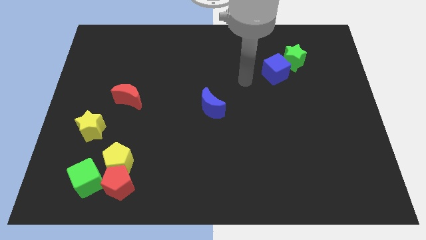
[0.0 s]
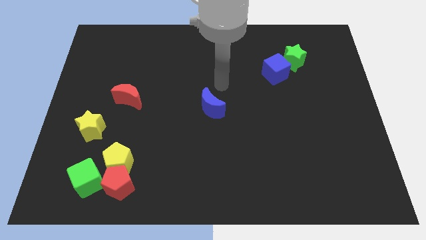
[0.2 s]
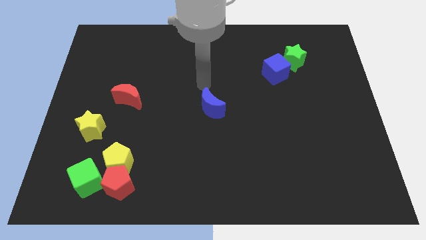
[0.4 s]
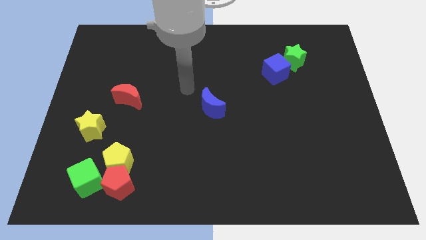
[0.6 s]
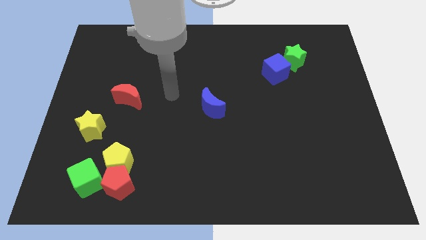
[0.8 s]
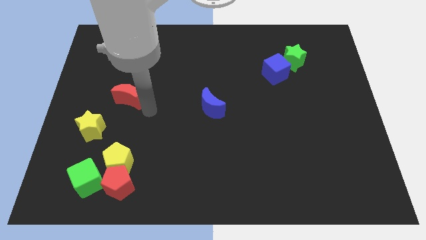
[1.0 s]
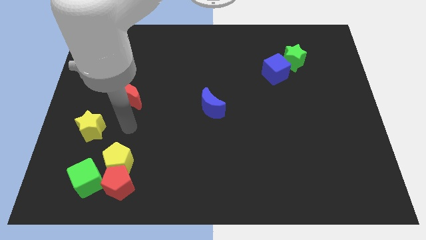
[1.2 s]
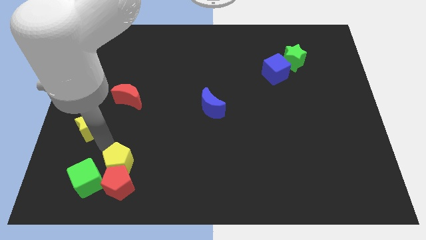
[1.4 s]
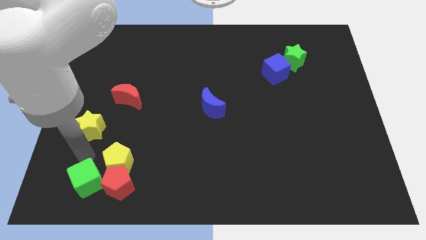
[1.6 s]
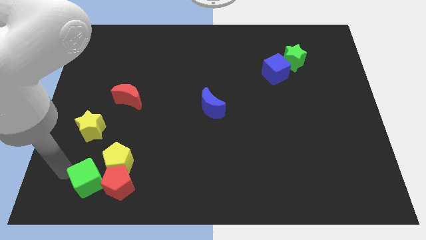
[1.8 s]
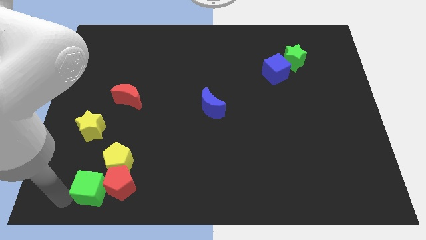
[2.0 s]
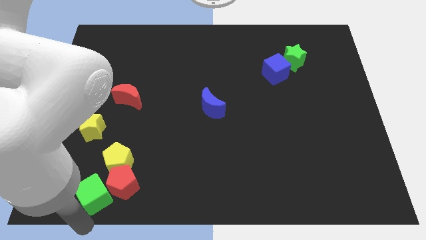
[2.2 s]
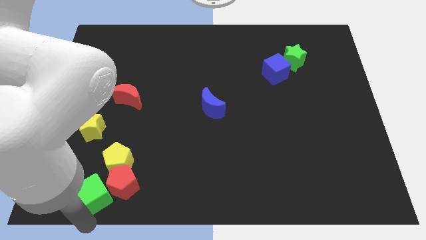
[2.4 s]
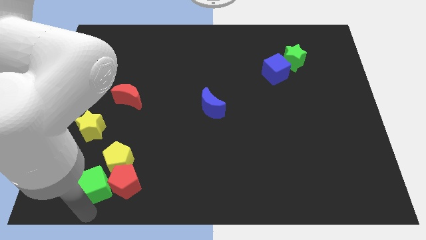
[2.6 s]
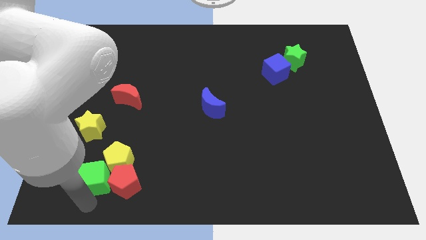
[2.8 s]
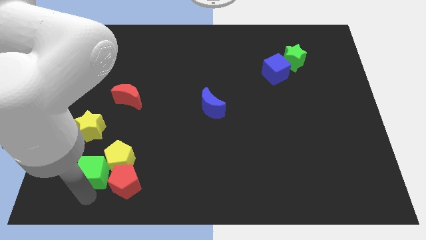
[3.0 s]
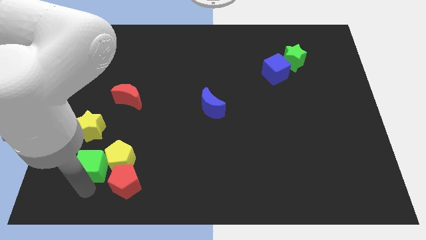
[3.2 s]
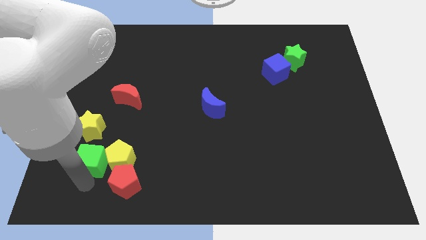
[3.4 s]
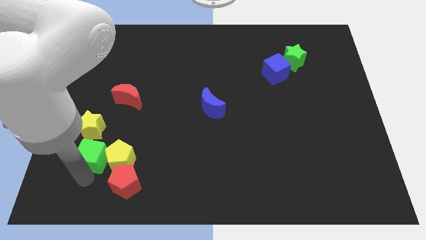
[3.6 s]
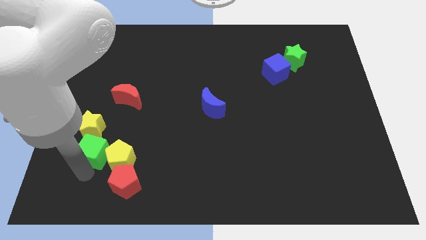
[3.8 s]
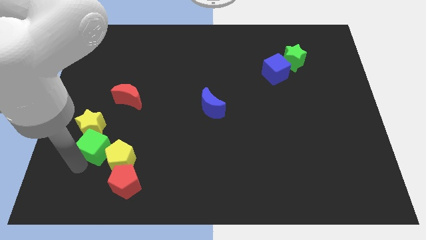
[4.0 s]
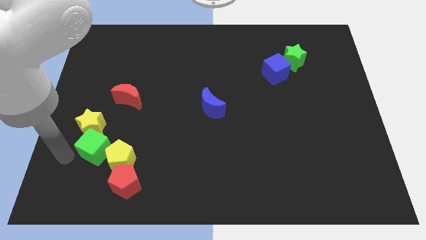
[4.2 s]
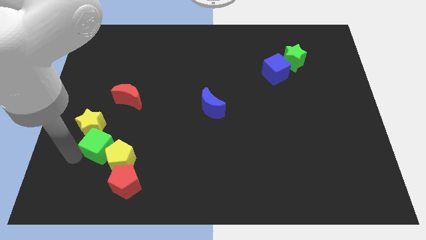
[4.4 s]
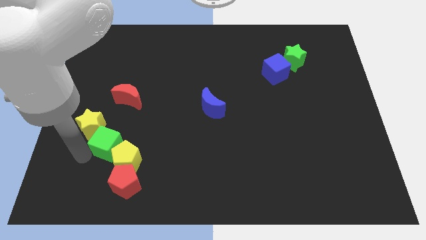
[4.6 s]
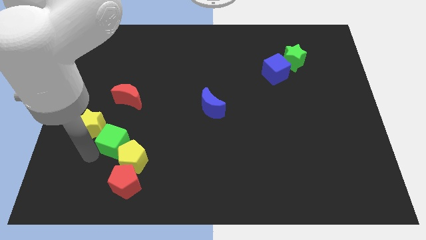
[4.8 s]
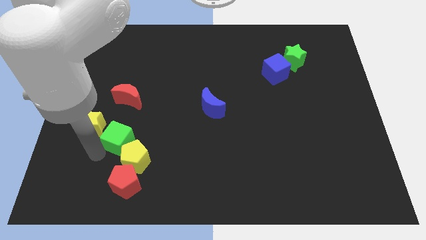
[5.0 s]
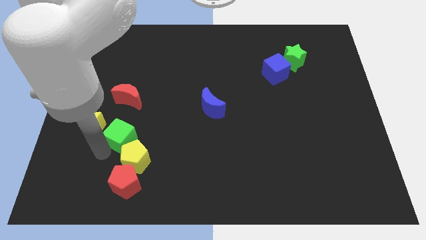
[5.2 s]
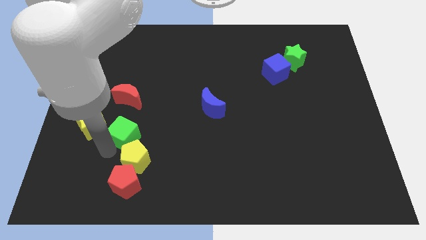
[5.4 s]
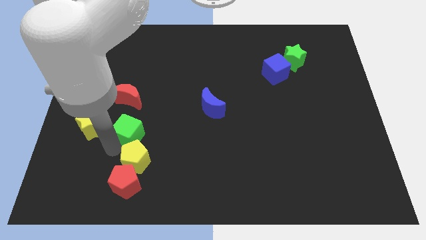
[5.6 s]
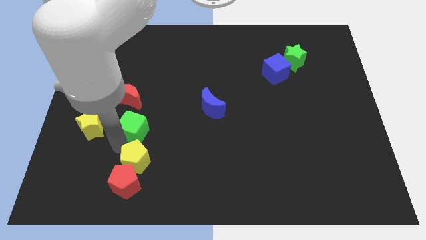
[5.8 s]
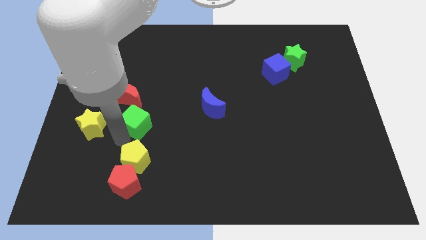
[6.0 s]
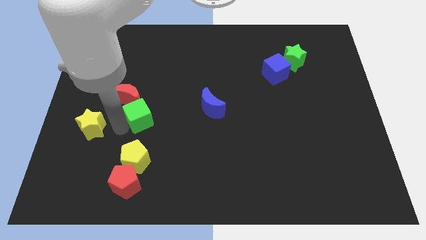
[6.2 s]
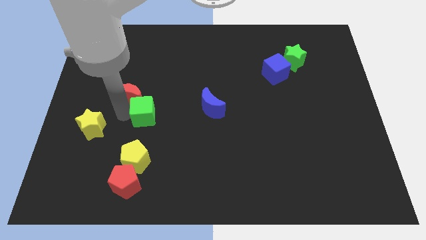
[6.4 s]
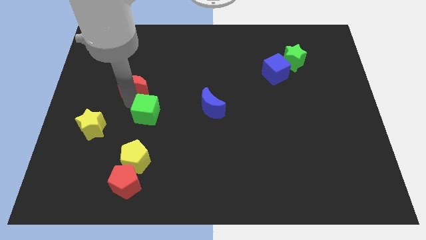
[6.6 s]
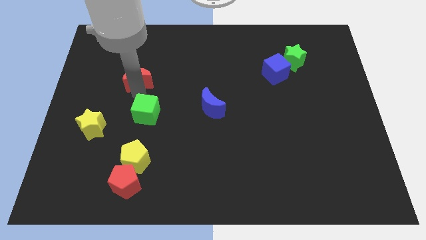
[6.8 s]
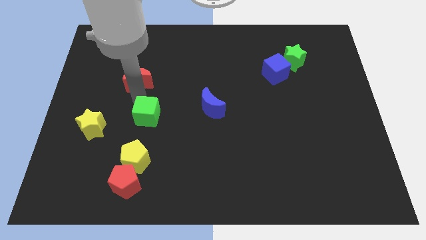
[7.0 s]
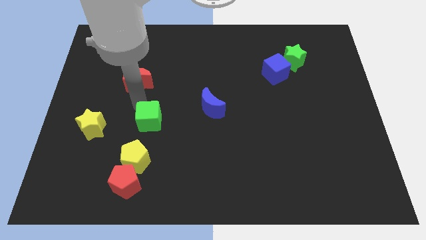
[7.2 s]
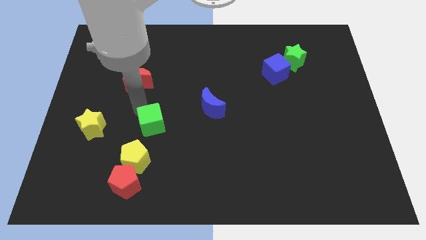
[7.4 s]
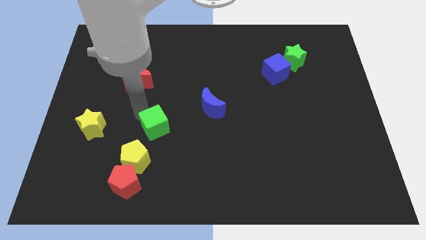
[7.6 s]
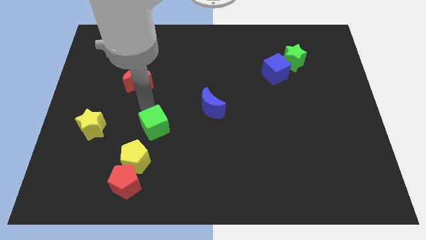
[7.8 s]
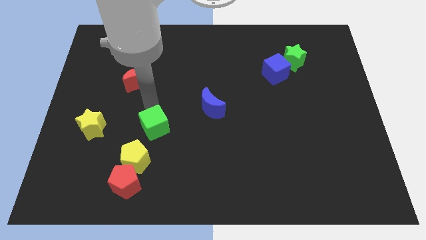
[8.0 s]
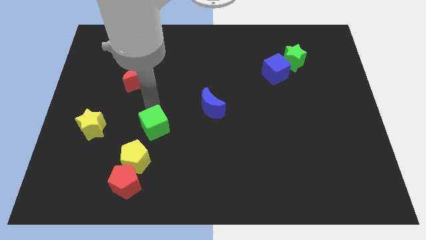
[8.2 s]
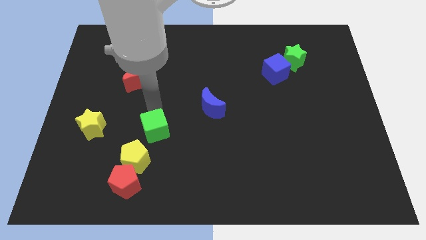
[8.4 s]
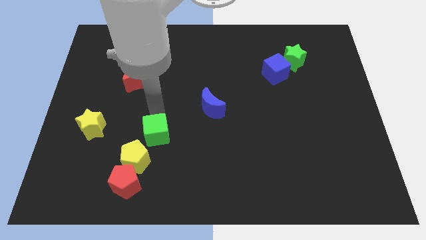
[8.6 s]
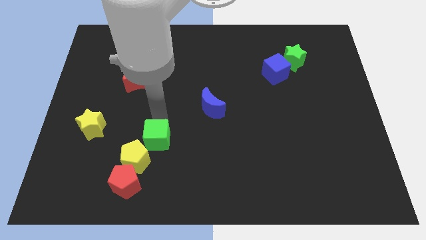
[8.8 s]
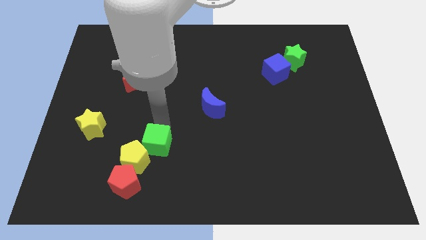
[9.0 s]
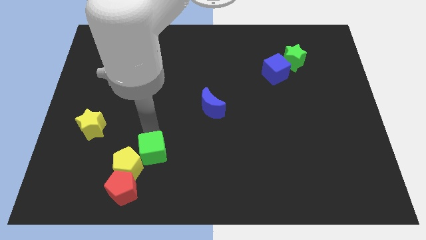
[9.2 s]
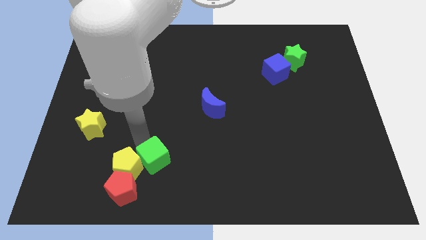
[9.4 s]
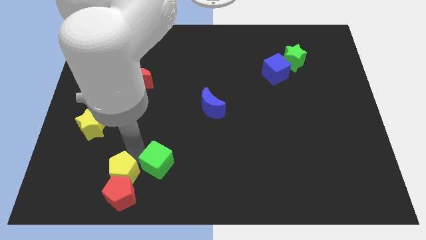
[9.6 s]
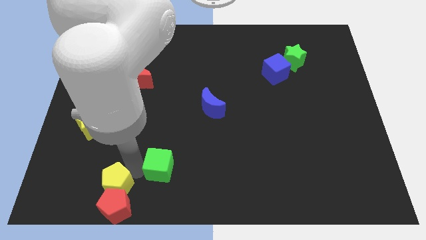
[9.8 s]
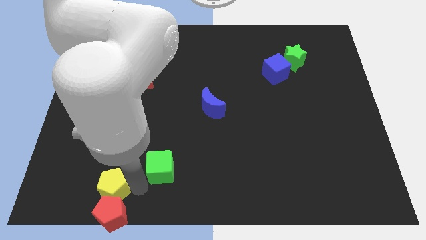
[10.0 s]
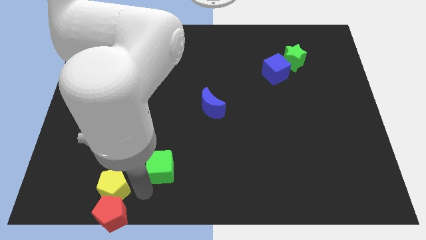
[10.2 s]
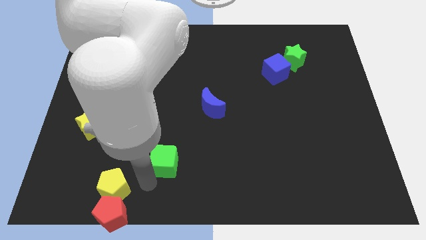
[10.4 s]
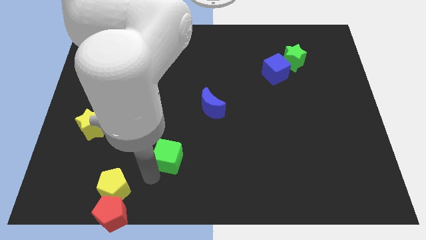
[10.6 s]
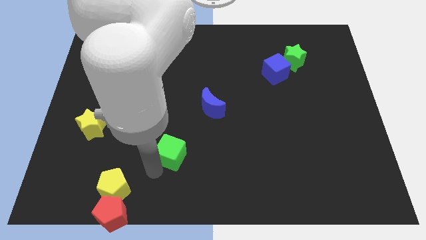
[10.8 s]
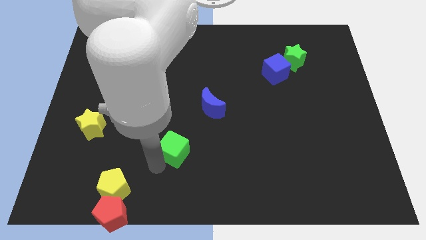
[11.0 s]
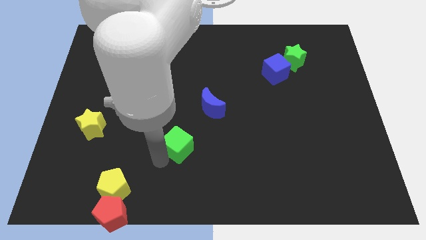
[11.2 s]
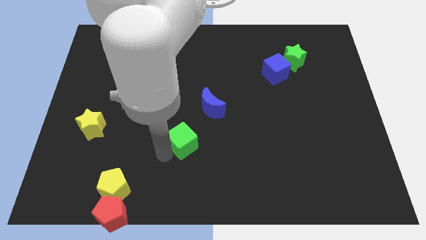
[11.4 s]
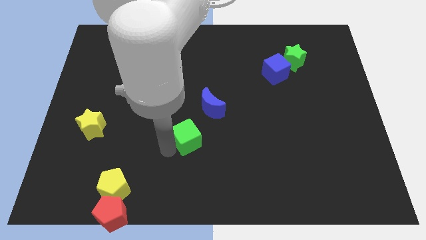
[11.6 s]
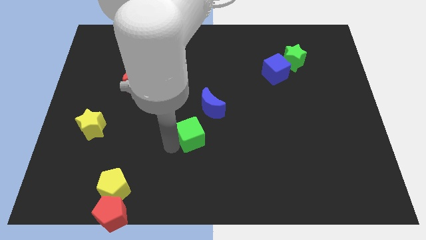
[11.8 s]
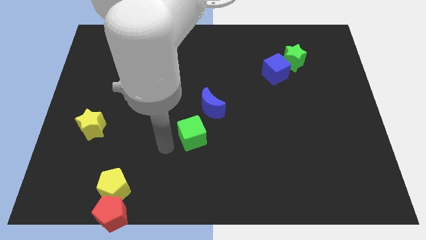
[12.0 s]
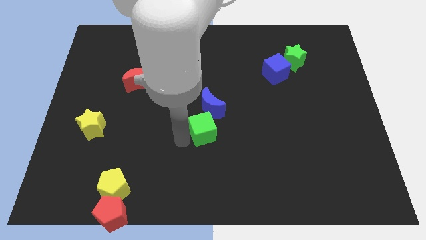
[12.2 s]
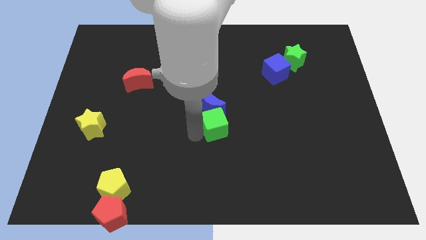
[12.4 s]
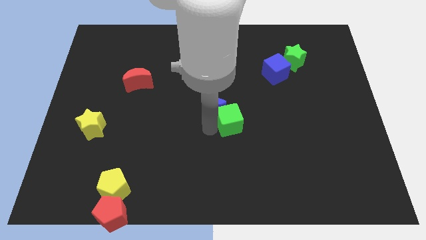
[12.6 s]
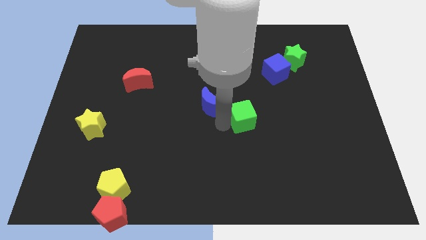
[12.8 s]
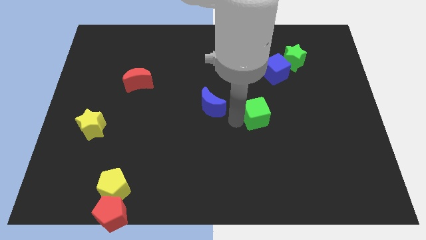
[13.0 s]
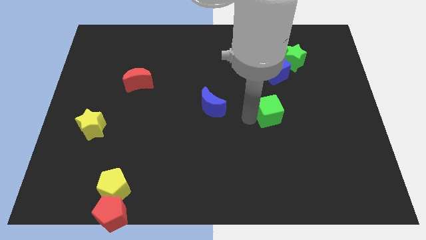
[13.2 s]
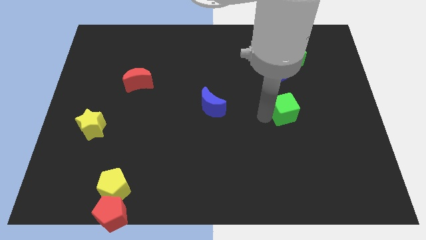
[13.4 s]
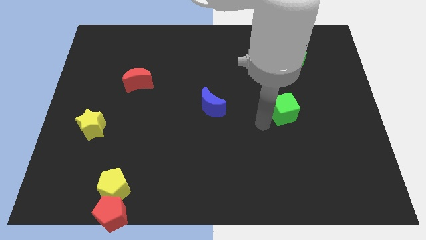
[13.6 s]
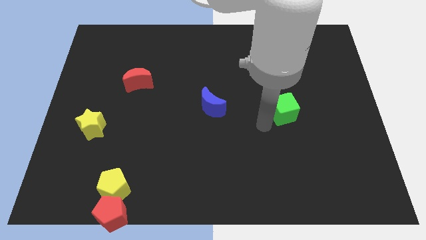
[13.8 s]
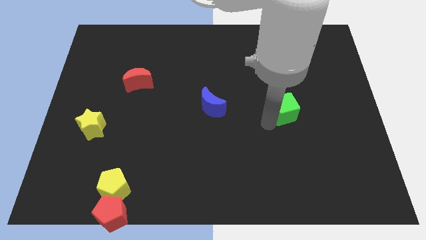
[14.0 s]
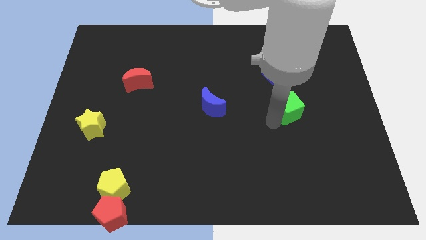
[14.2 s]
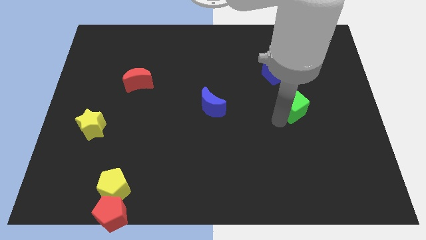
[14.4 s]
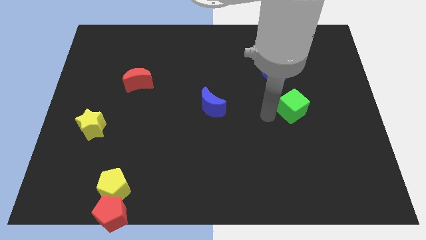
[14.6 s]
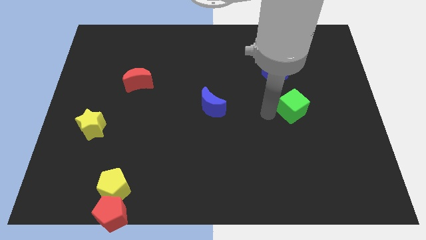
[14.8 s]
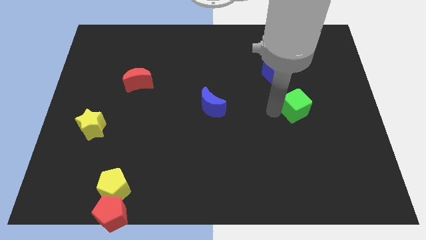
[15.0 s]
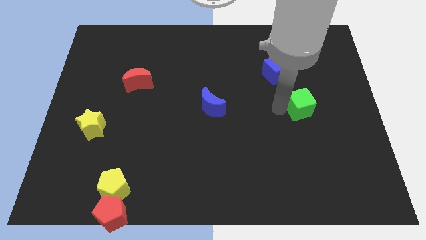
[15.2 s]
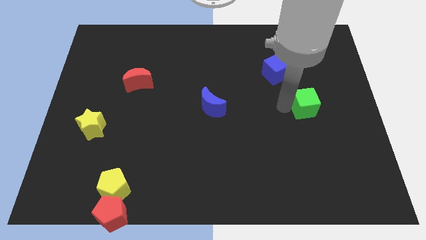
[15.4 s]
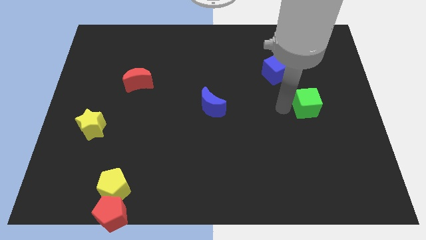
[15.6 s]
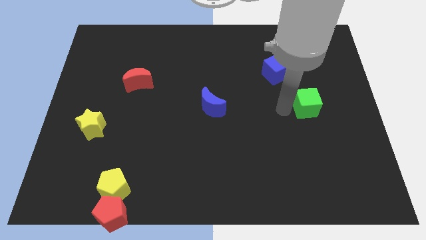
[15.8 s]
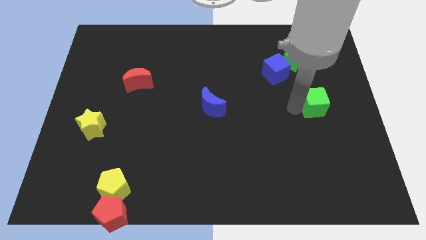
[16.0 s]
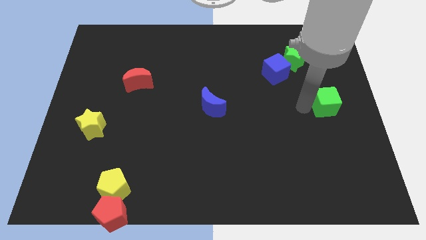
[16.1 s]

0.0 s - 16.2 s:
put the green cube to the right side
